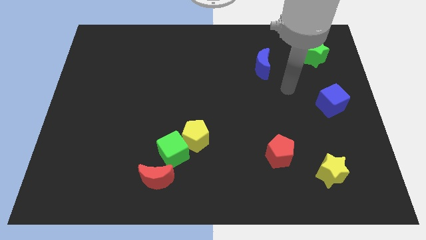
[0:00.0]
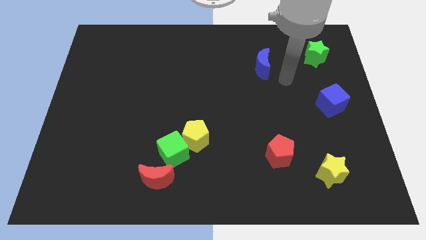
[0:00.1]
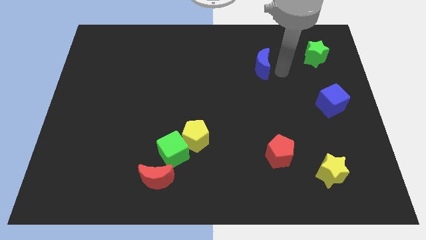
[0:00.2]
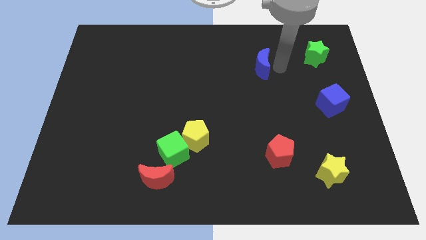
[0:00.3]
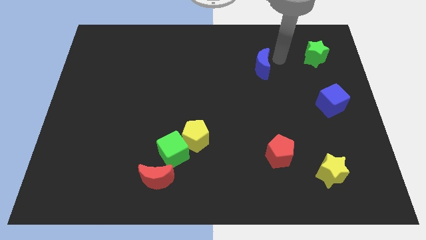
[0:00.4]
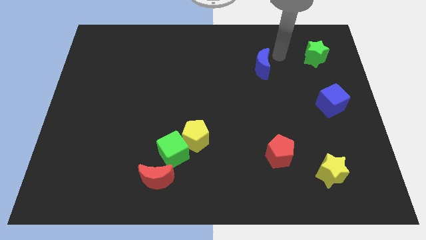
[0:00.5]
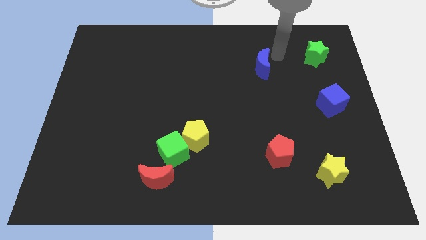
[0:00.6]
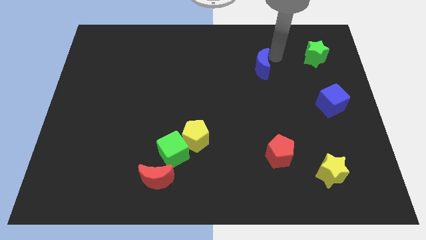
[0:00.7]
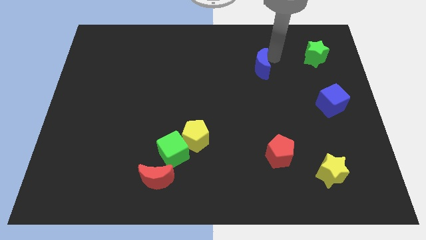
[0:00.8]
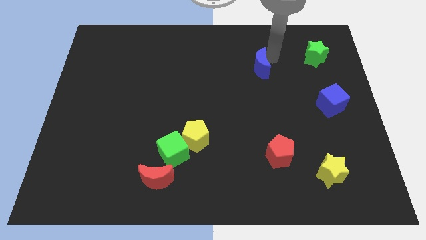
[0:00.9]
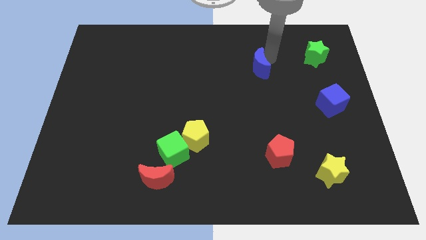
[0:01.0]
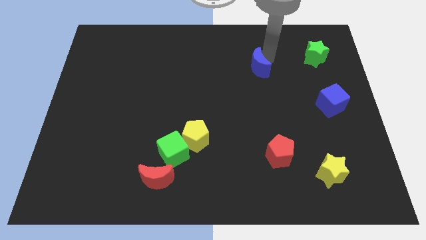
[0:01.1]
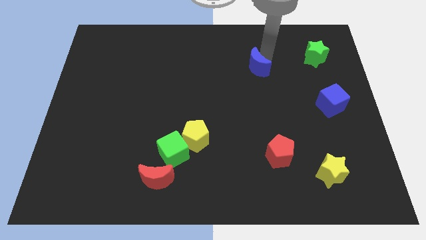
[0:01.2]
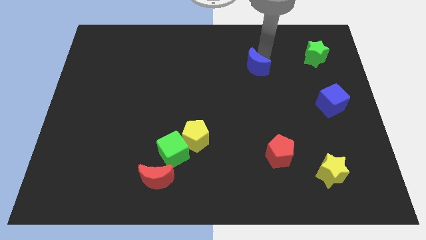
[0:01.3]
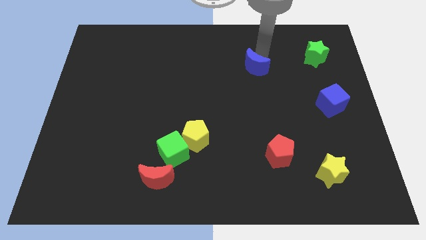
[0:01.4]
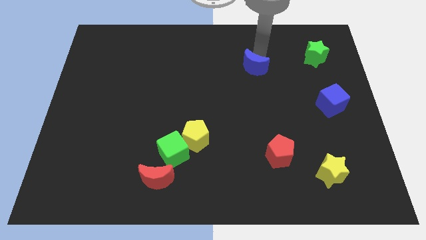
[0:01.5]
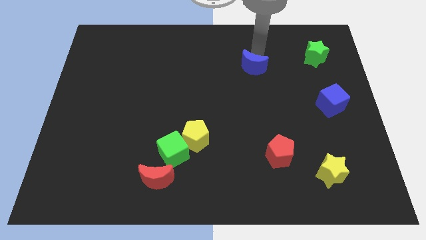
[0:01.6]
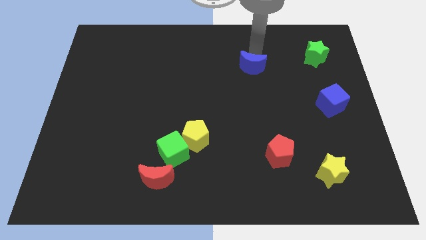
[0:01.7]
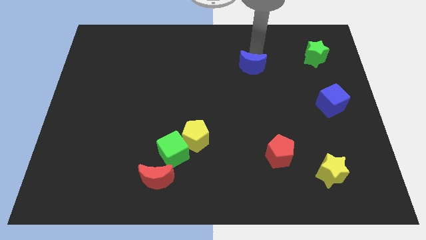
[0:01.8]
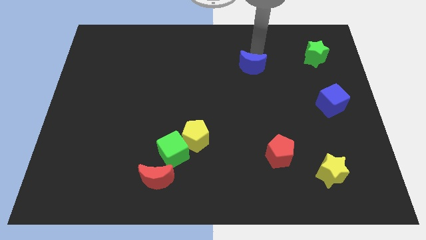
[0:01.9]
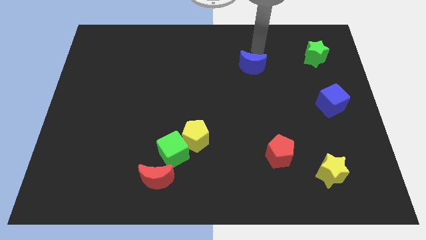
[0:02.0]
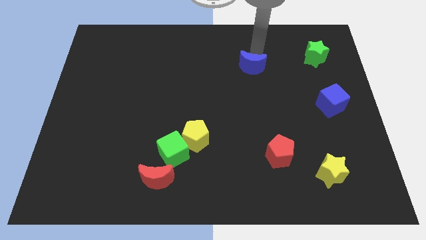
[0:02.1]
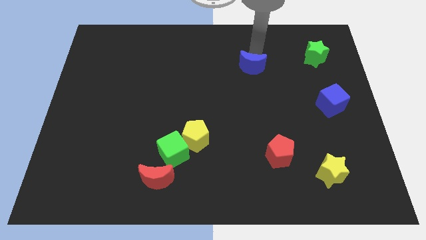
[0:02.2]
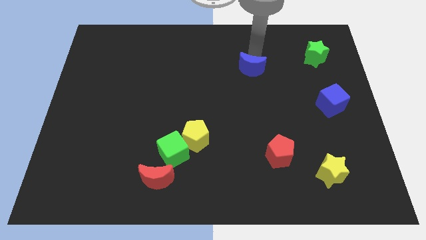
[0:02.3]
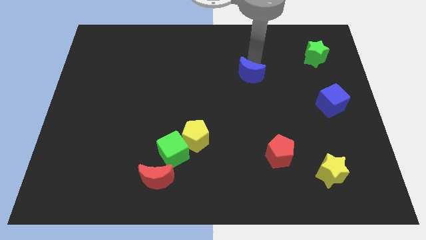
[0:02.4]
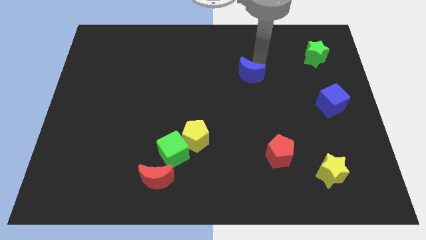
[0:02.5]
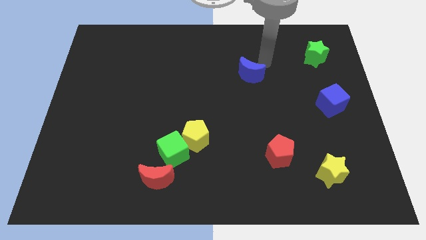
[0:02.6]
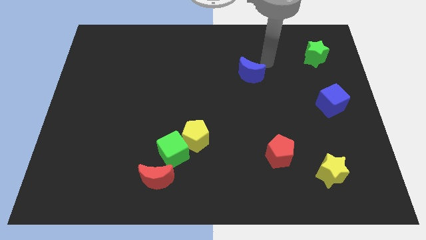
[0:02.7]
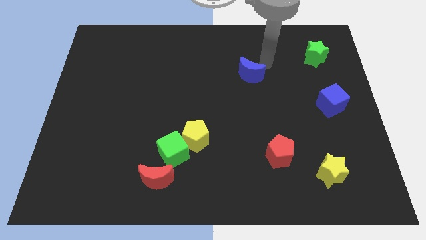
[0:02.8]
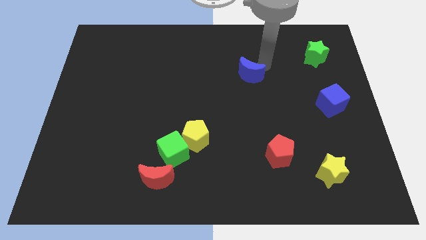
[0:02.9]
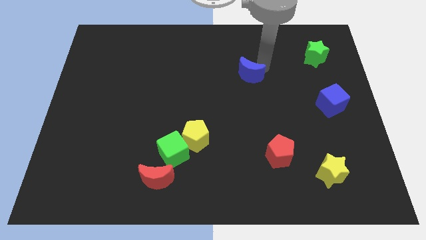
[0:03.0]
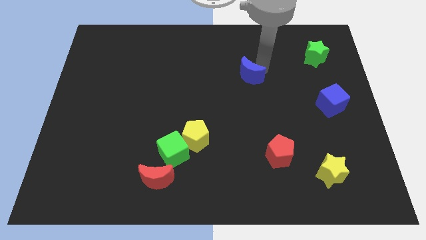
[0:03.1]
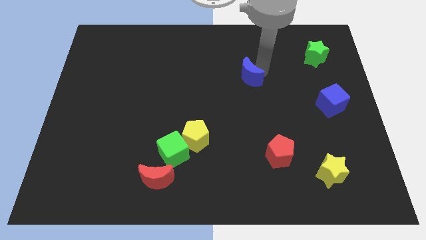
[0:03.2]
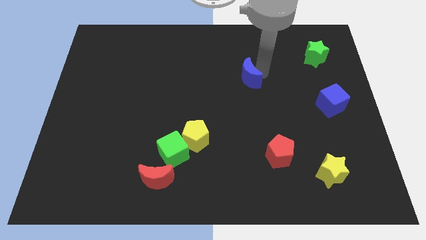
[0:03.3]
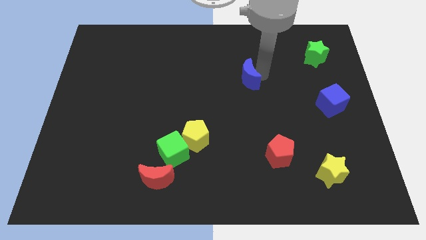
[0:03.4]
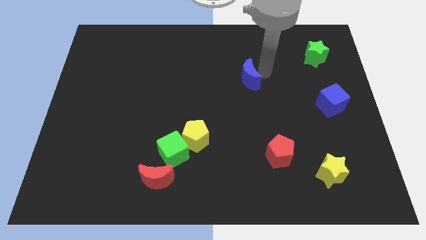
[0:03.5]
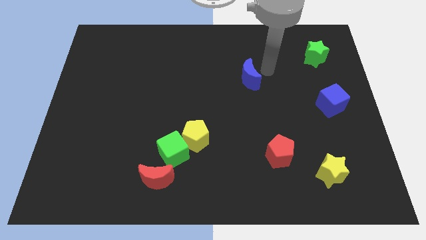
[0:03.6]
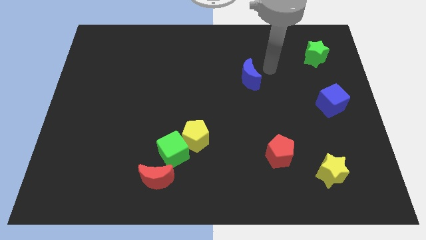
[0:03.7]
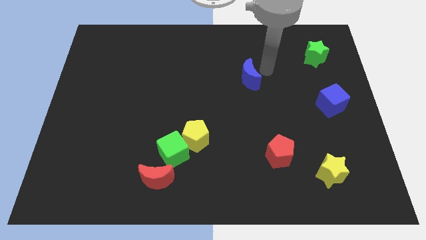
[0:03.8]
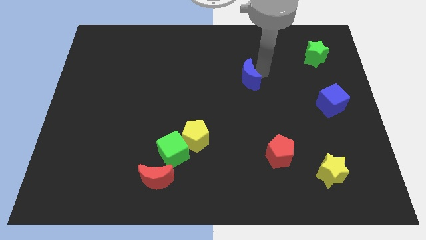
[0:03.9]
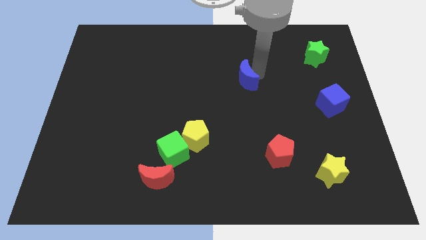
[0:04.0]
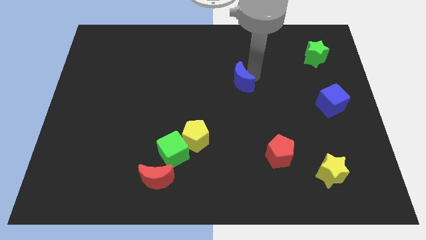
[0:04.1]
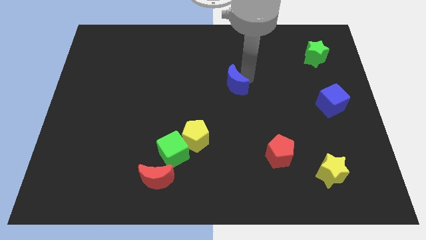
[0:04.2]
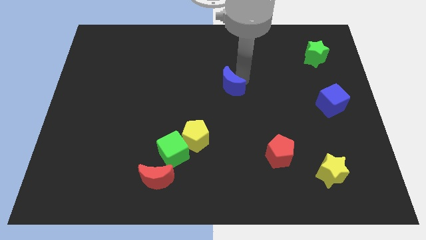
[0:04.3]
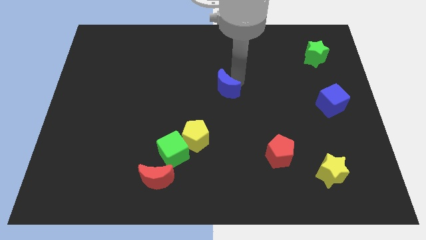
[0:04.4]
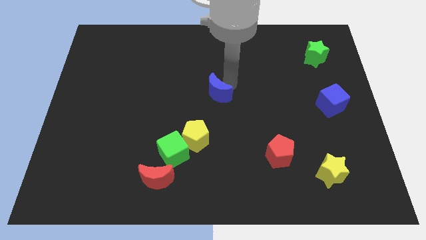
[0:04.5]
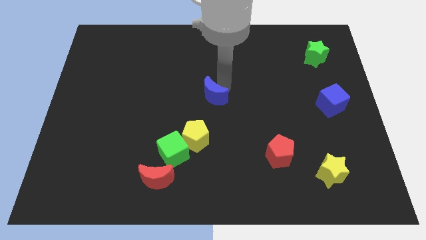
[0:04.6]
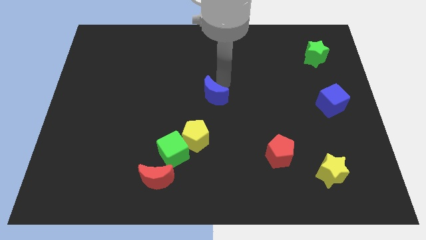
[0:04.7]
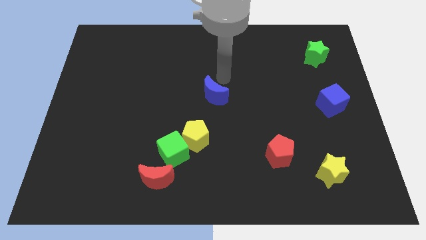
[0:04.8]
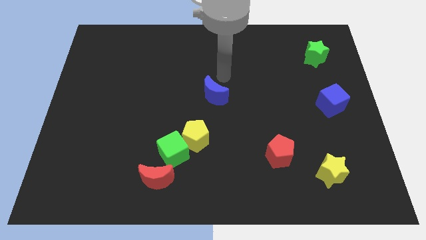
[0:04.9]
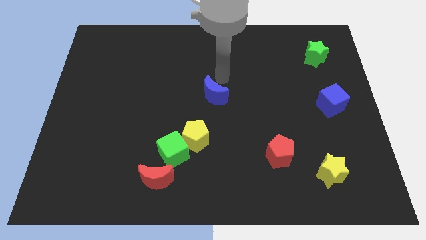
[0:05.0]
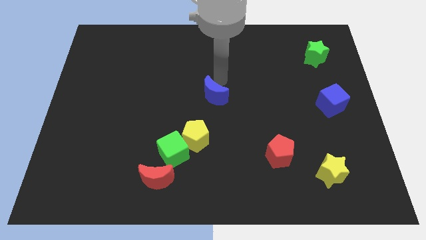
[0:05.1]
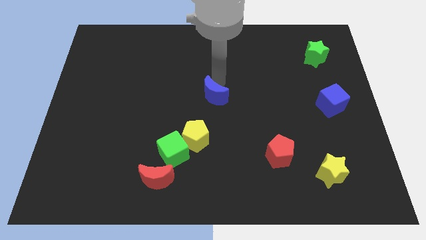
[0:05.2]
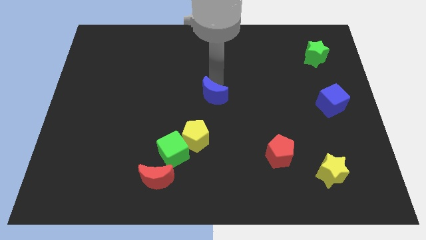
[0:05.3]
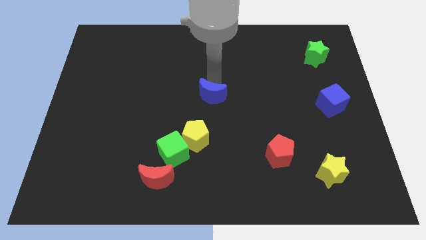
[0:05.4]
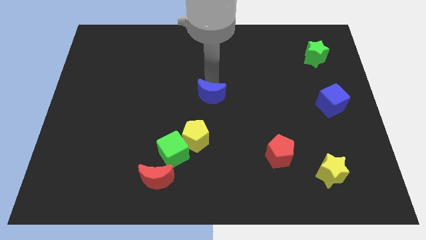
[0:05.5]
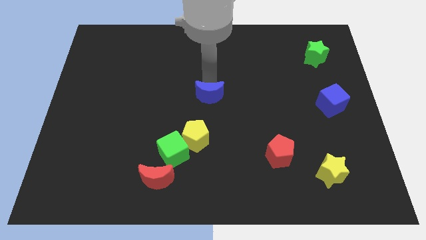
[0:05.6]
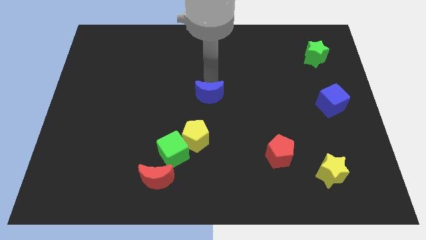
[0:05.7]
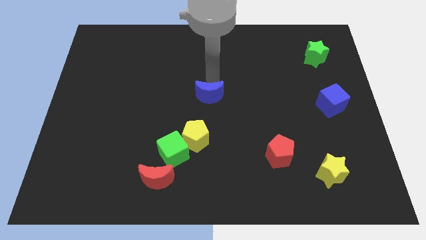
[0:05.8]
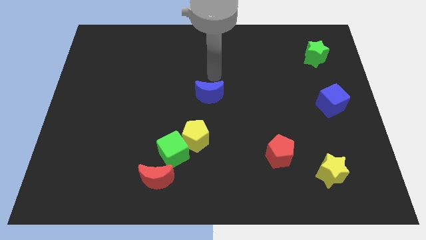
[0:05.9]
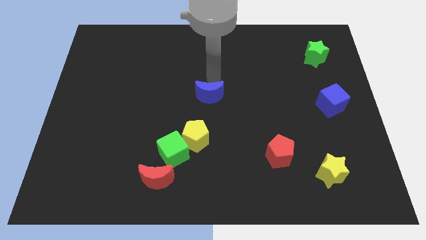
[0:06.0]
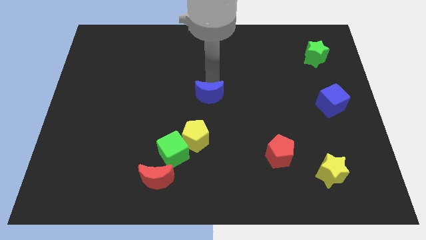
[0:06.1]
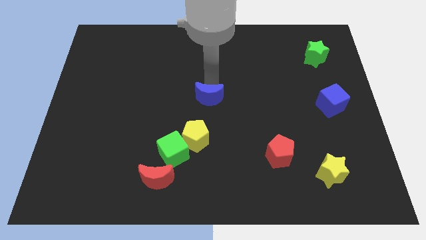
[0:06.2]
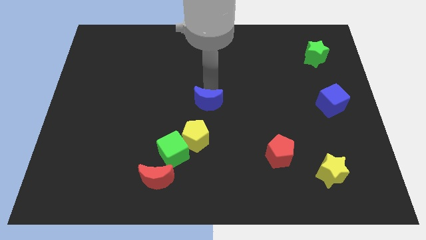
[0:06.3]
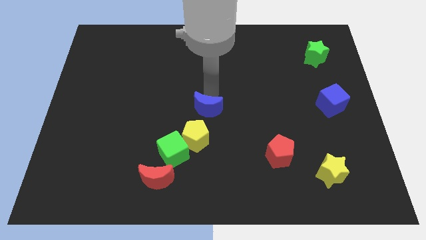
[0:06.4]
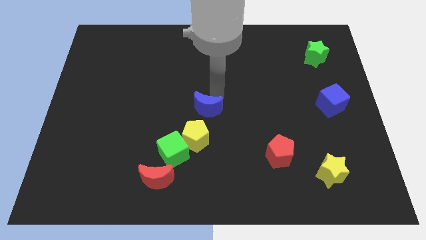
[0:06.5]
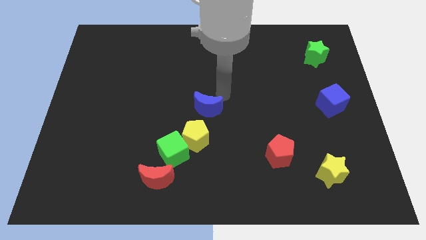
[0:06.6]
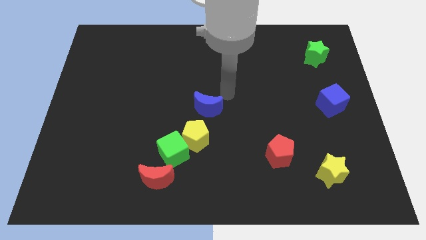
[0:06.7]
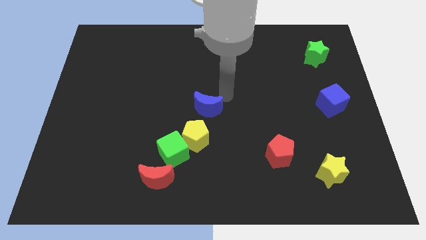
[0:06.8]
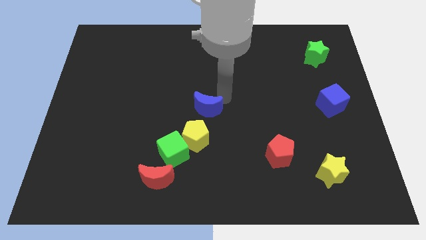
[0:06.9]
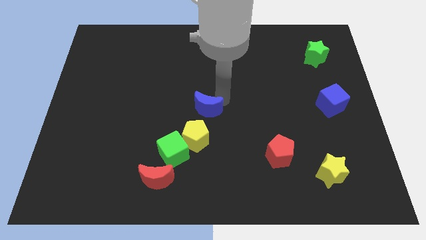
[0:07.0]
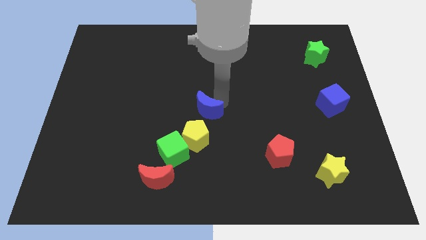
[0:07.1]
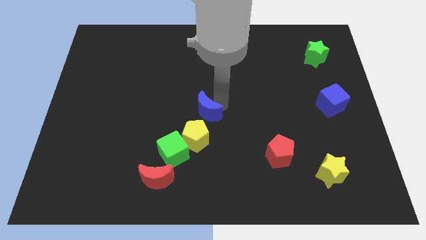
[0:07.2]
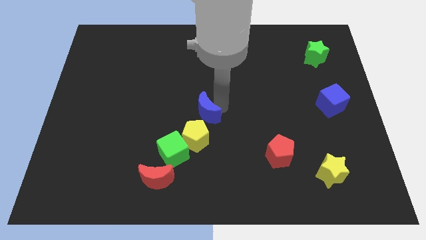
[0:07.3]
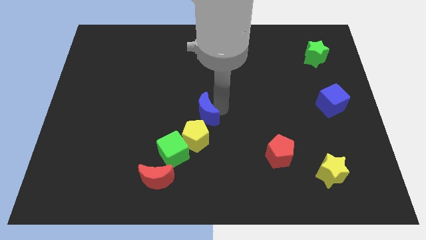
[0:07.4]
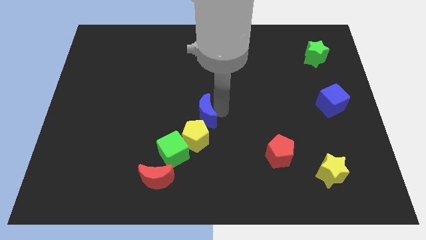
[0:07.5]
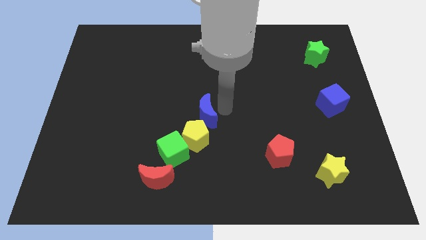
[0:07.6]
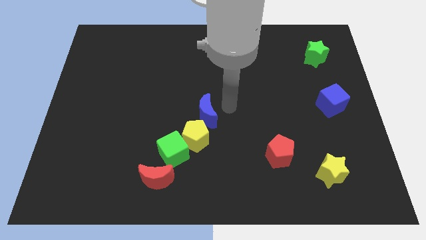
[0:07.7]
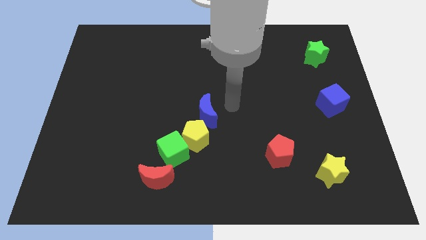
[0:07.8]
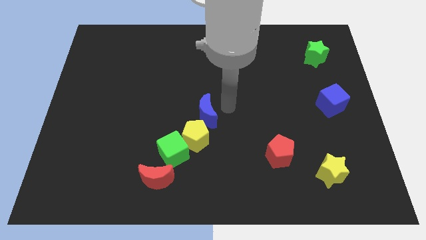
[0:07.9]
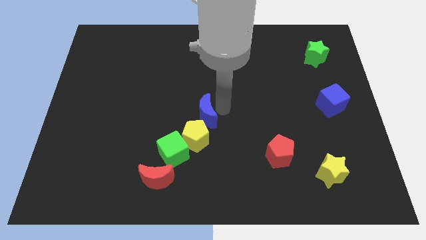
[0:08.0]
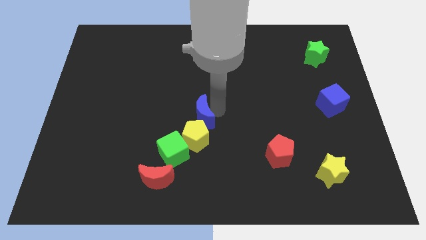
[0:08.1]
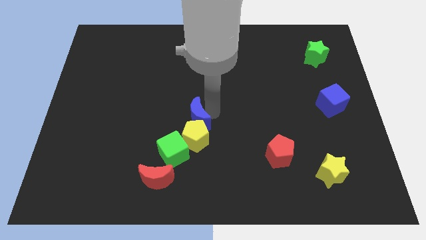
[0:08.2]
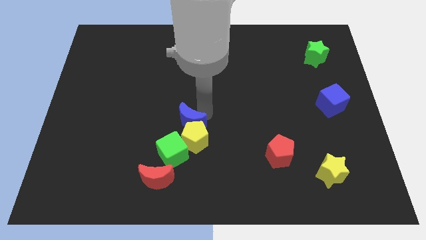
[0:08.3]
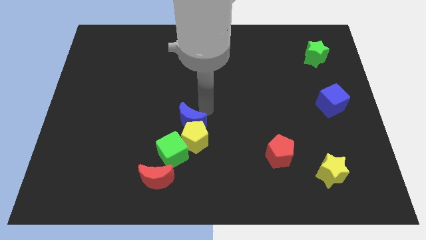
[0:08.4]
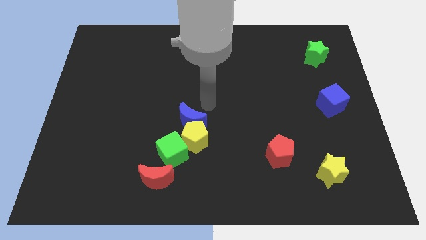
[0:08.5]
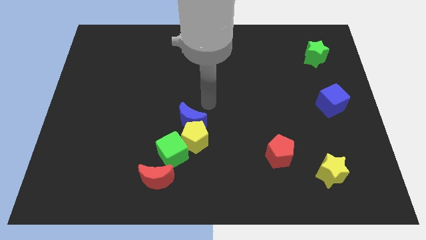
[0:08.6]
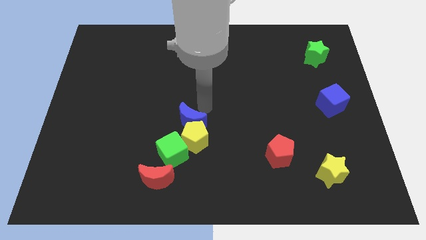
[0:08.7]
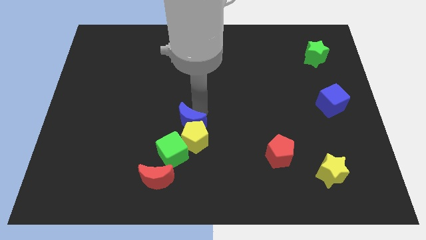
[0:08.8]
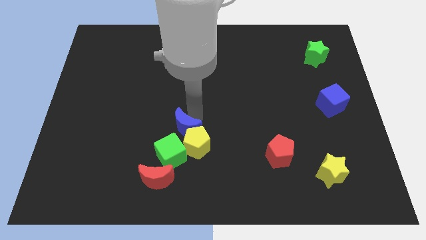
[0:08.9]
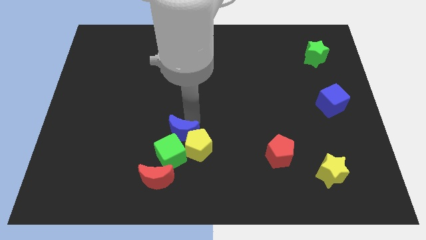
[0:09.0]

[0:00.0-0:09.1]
slide the blue moon close to the green cube
